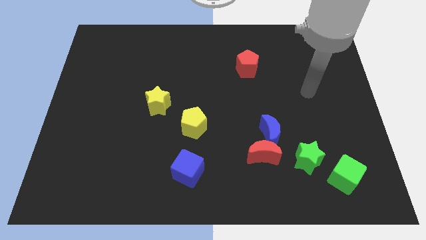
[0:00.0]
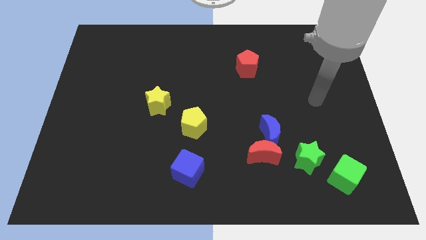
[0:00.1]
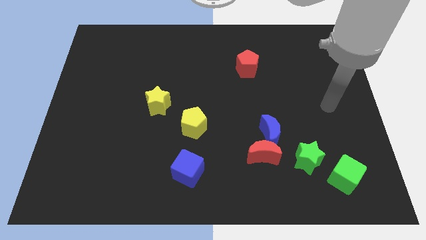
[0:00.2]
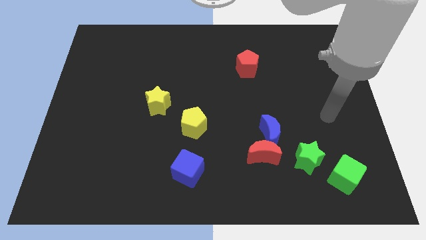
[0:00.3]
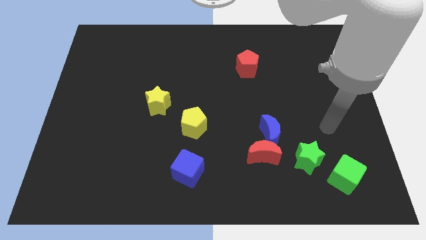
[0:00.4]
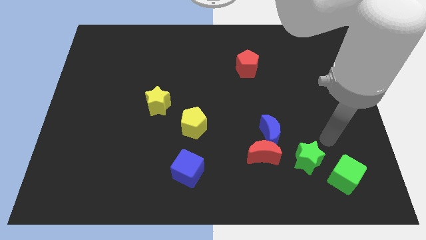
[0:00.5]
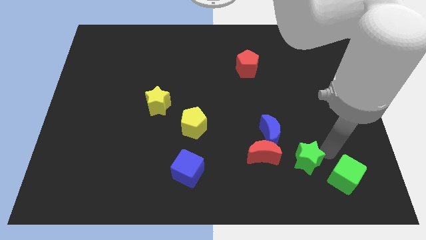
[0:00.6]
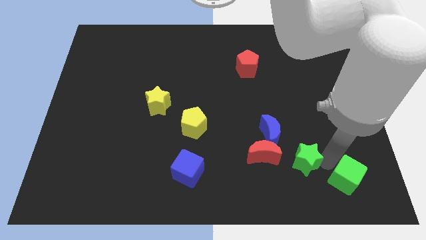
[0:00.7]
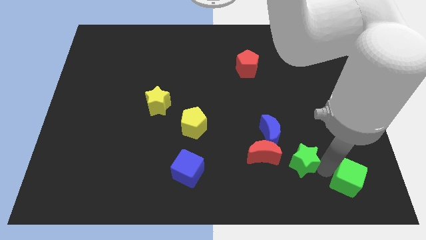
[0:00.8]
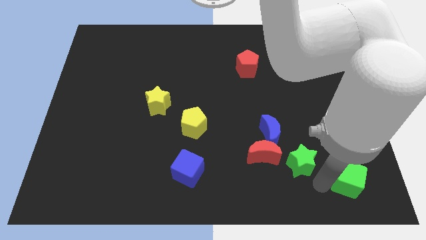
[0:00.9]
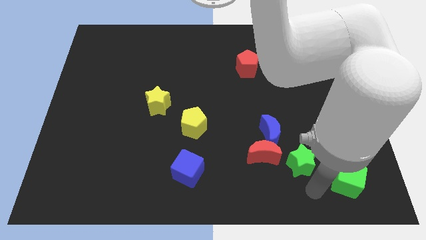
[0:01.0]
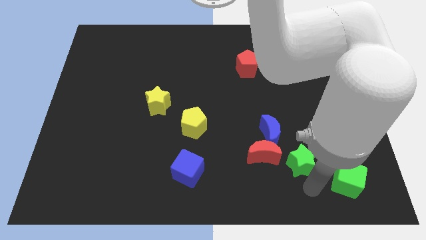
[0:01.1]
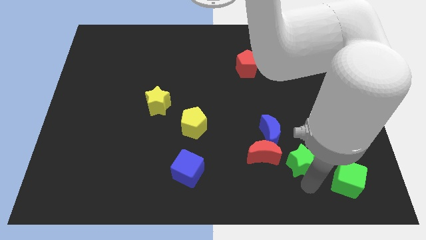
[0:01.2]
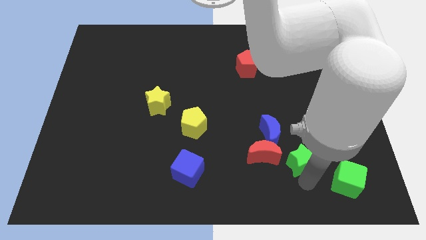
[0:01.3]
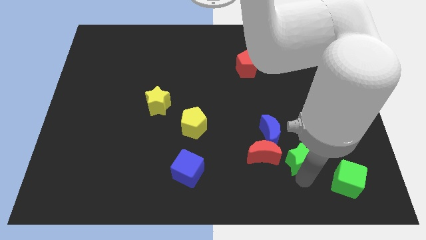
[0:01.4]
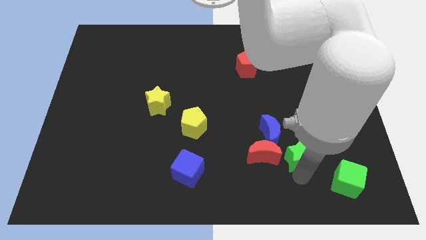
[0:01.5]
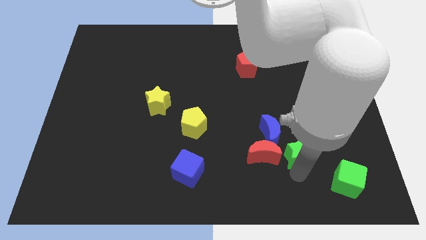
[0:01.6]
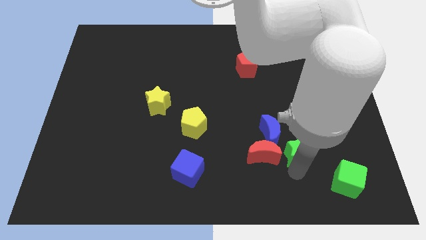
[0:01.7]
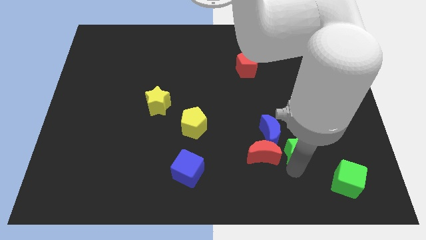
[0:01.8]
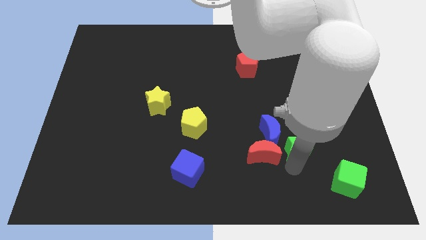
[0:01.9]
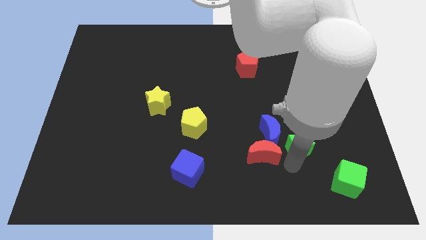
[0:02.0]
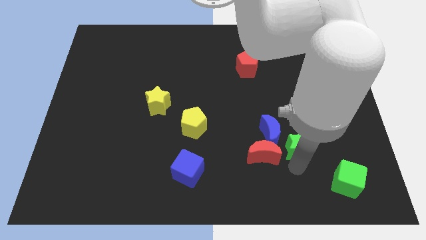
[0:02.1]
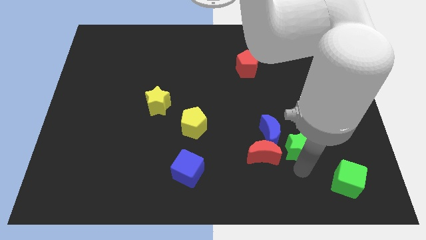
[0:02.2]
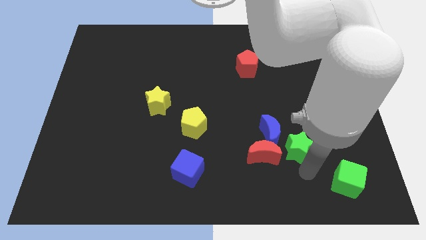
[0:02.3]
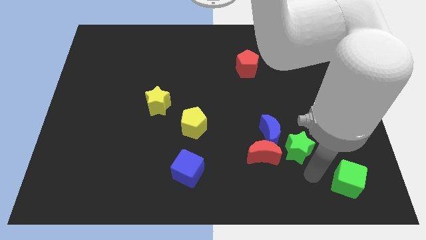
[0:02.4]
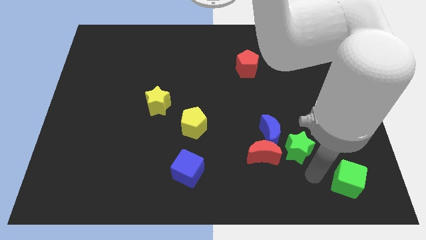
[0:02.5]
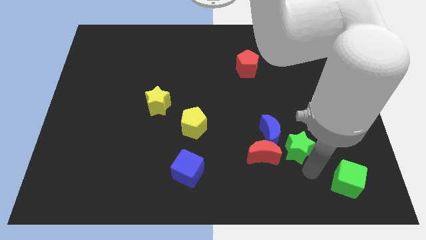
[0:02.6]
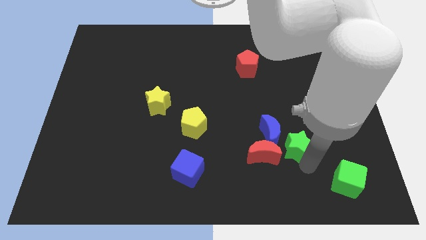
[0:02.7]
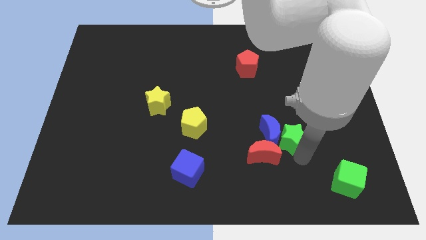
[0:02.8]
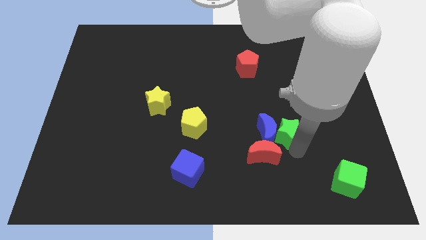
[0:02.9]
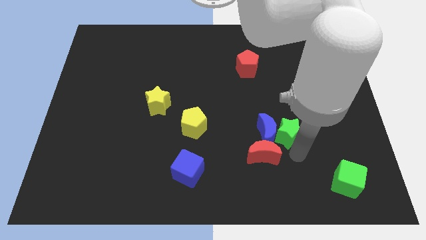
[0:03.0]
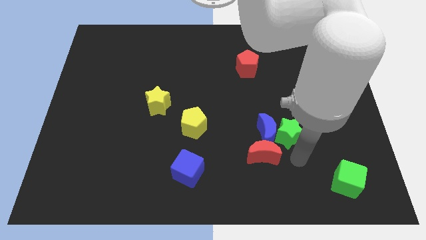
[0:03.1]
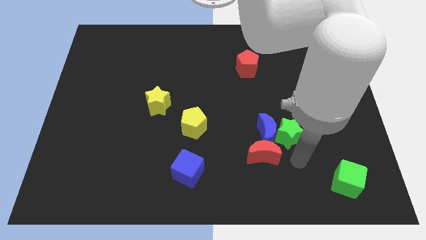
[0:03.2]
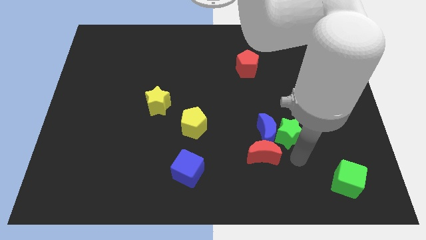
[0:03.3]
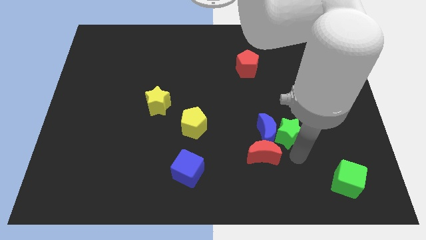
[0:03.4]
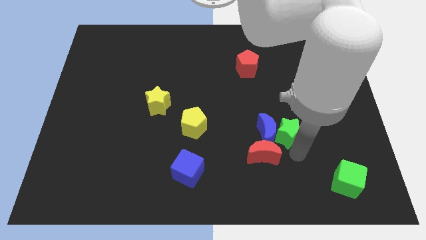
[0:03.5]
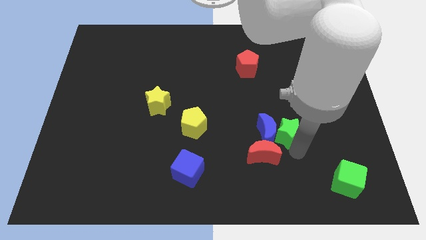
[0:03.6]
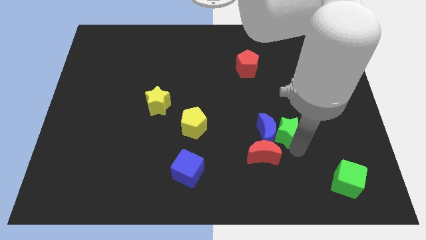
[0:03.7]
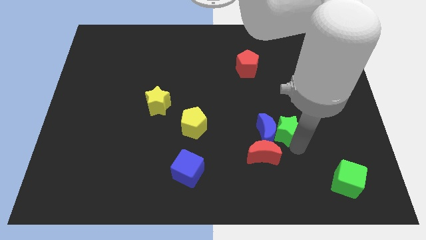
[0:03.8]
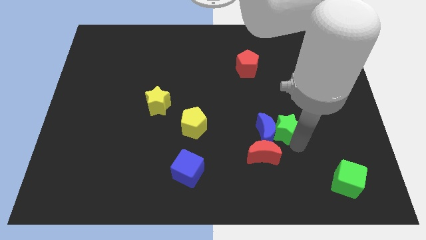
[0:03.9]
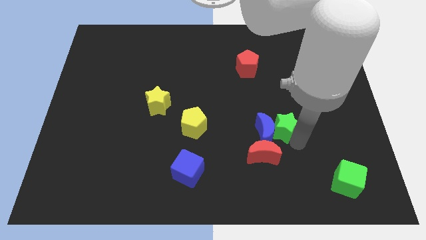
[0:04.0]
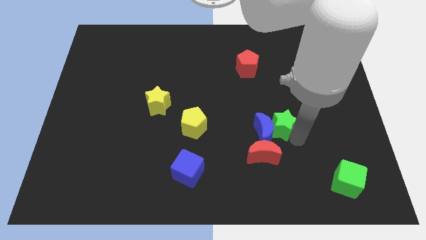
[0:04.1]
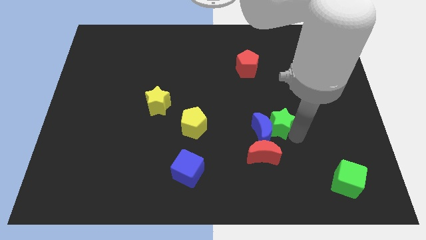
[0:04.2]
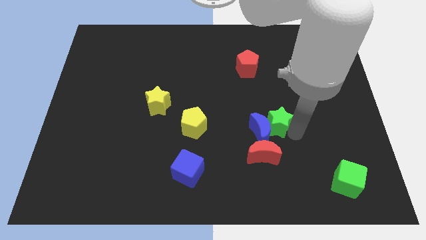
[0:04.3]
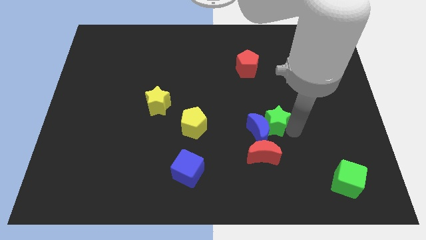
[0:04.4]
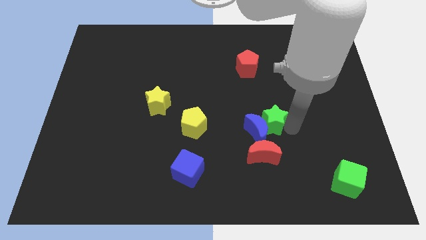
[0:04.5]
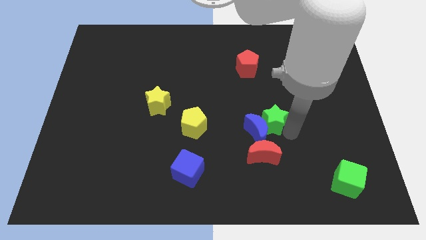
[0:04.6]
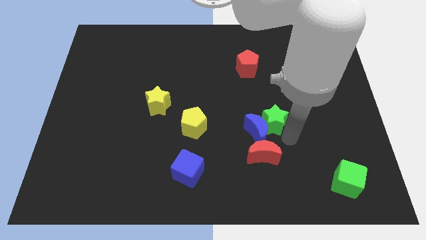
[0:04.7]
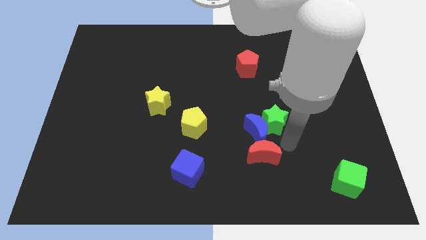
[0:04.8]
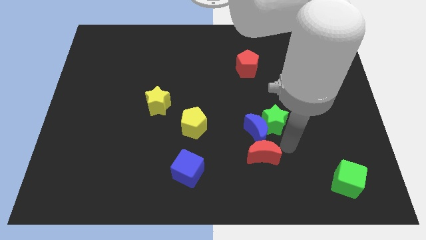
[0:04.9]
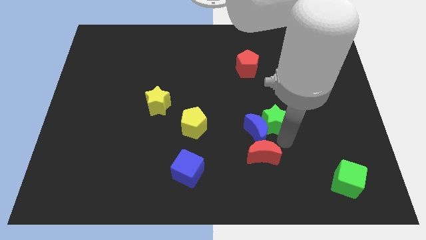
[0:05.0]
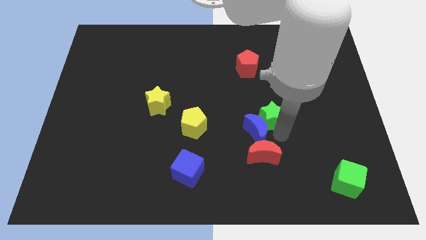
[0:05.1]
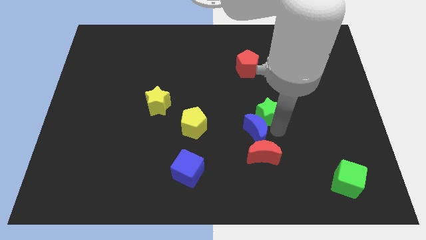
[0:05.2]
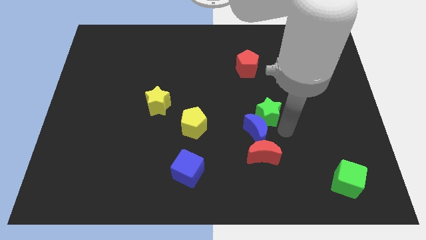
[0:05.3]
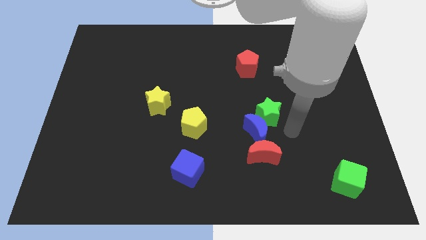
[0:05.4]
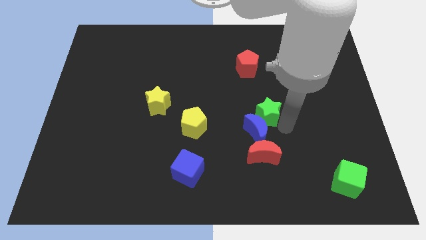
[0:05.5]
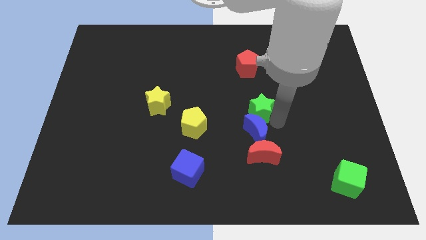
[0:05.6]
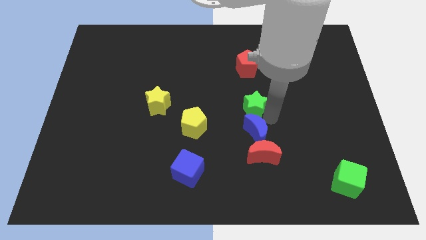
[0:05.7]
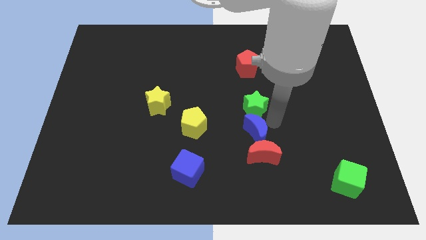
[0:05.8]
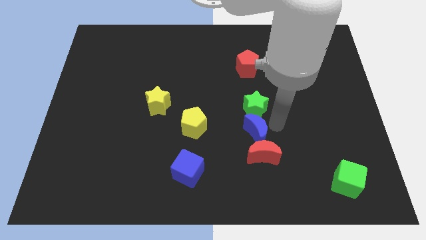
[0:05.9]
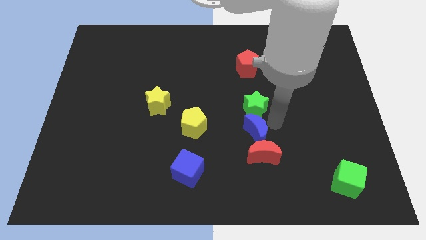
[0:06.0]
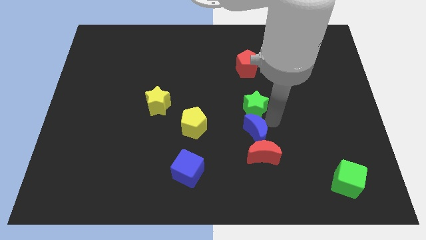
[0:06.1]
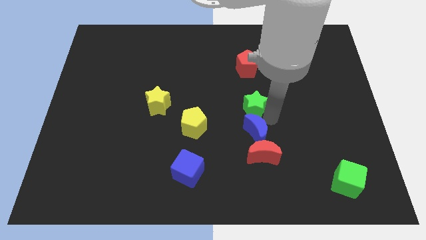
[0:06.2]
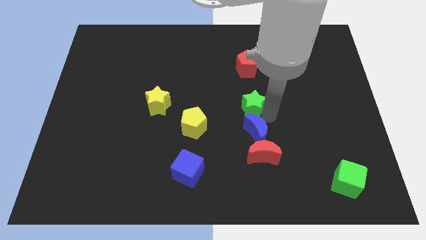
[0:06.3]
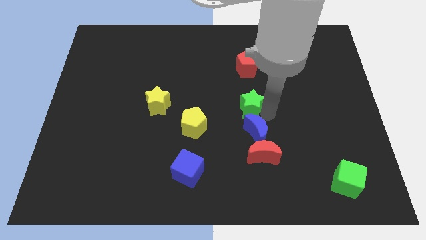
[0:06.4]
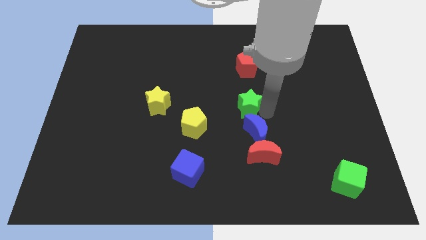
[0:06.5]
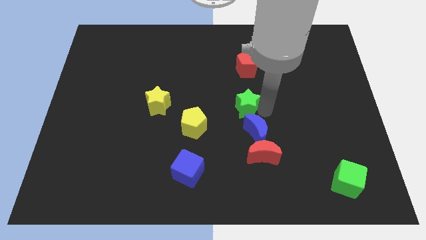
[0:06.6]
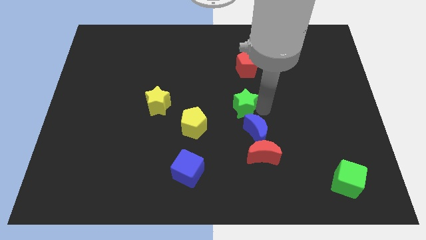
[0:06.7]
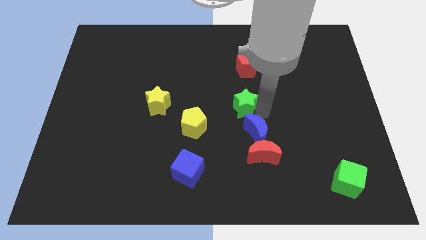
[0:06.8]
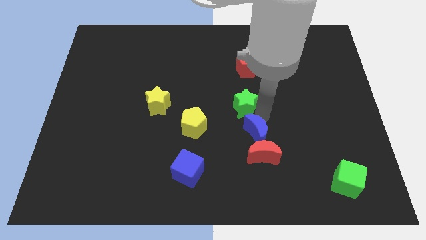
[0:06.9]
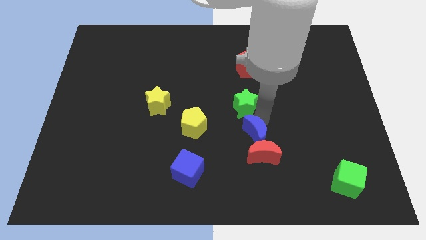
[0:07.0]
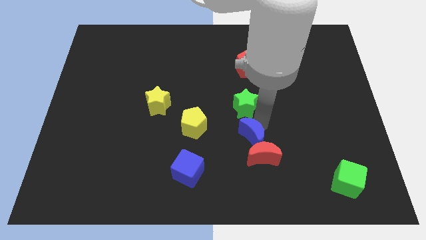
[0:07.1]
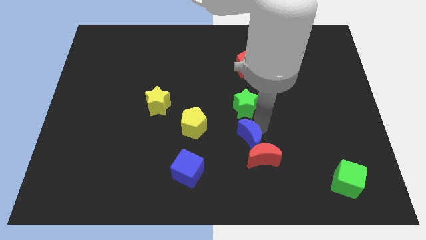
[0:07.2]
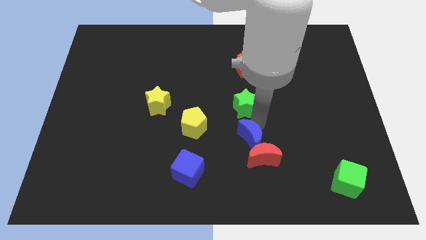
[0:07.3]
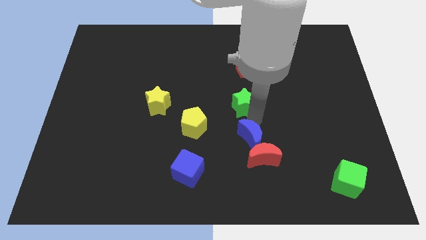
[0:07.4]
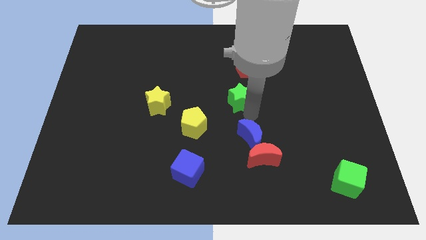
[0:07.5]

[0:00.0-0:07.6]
move the green star upwards and to the left diagonally
